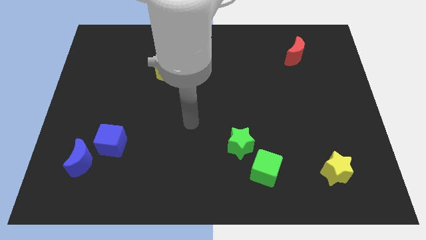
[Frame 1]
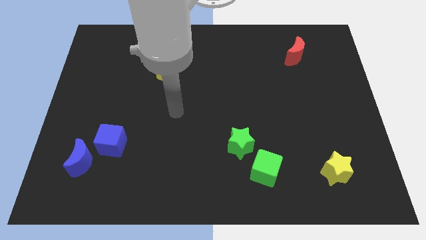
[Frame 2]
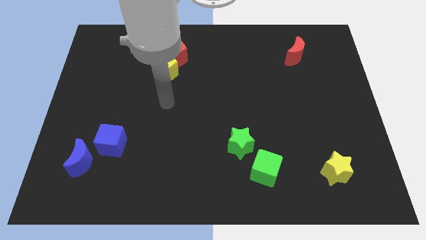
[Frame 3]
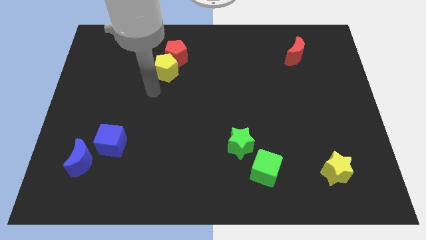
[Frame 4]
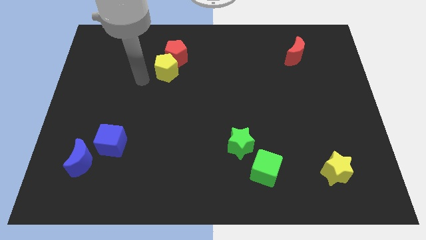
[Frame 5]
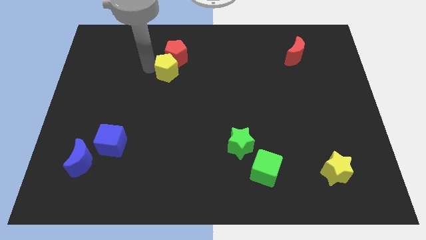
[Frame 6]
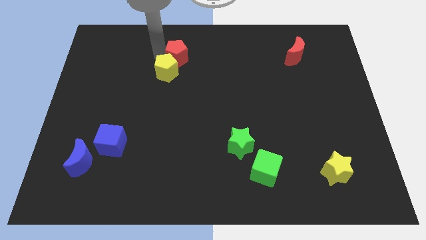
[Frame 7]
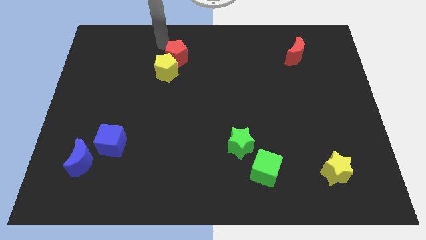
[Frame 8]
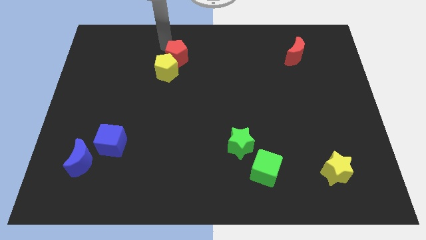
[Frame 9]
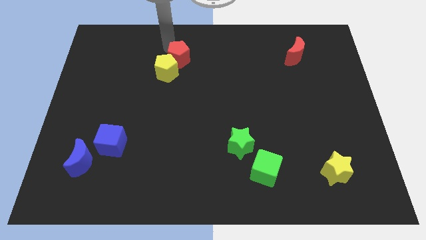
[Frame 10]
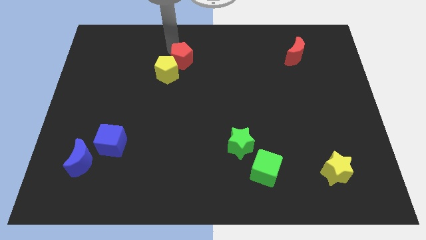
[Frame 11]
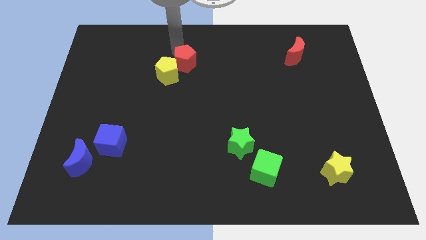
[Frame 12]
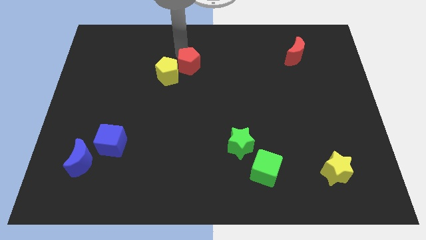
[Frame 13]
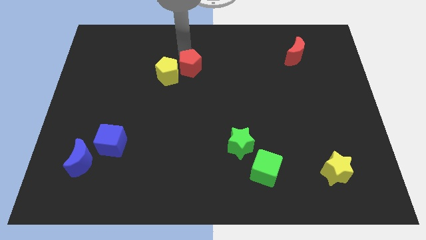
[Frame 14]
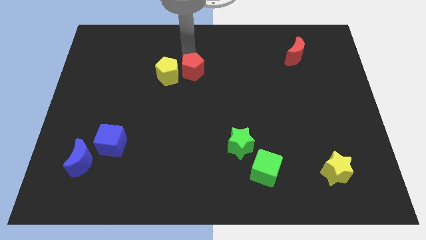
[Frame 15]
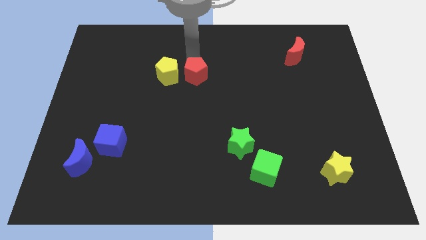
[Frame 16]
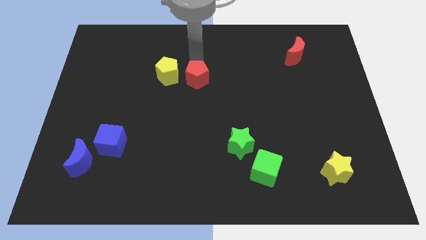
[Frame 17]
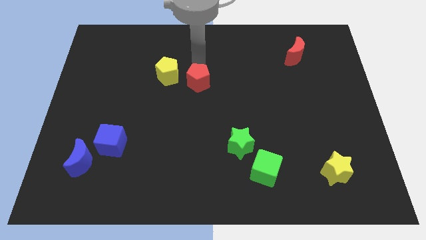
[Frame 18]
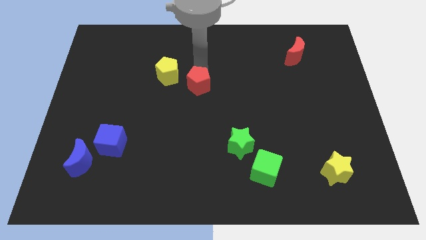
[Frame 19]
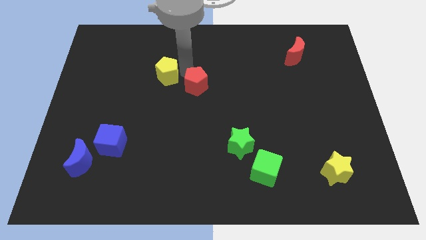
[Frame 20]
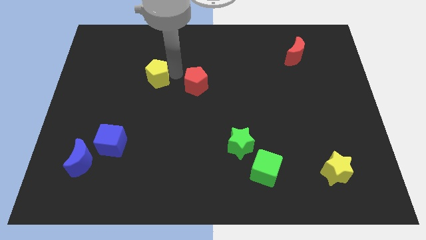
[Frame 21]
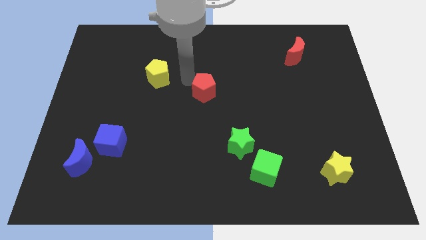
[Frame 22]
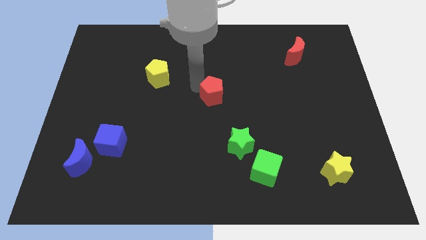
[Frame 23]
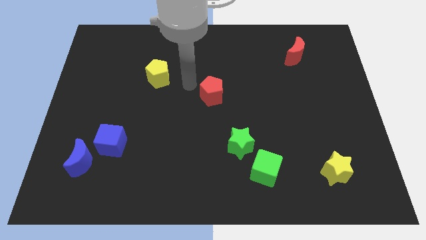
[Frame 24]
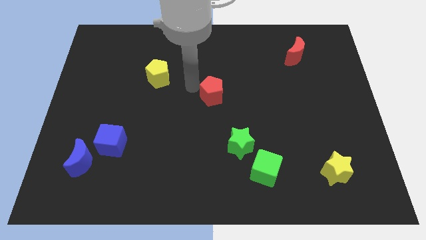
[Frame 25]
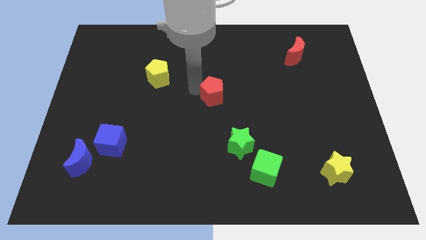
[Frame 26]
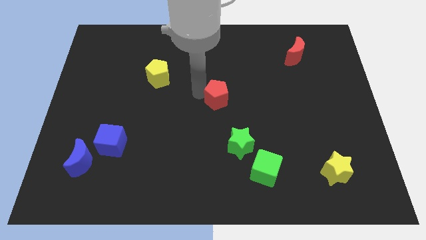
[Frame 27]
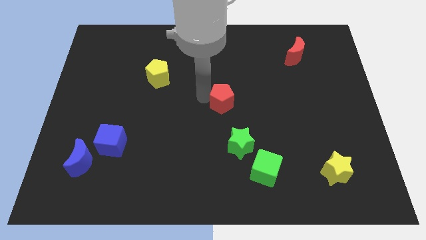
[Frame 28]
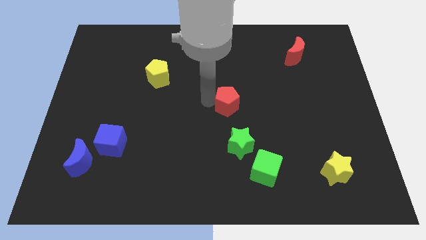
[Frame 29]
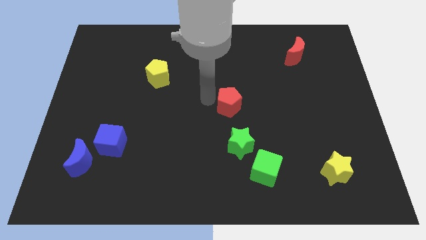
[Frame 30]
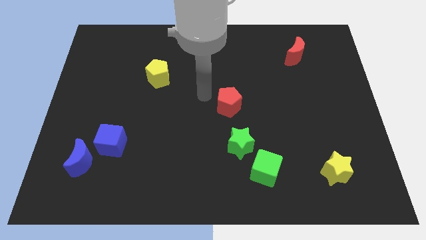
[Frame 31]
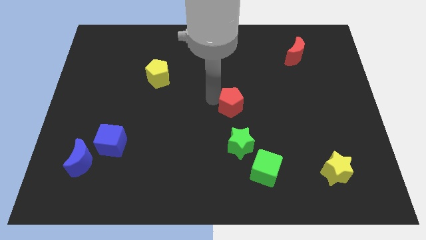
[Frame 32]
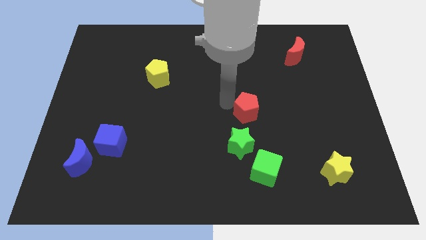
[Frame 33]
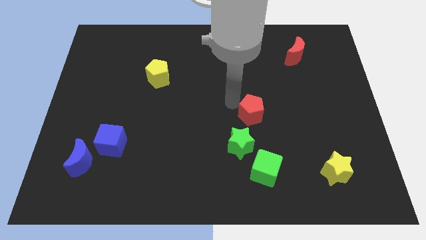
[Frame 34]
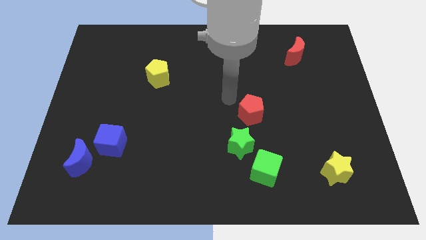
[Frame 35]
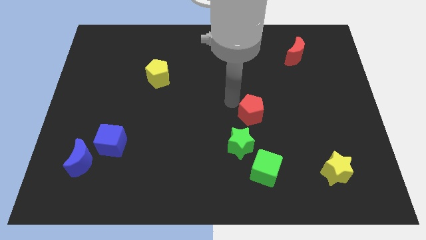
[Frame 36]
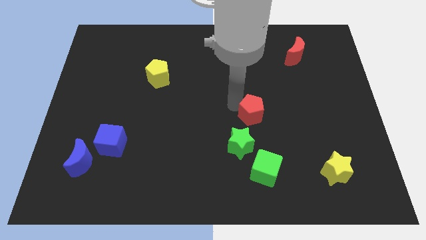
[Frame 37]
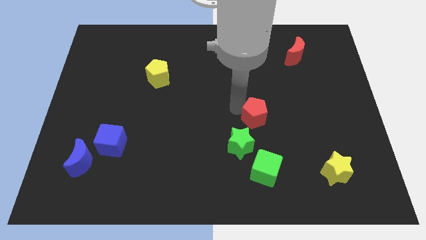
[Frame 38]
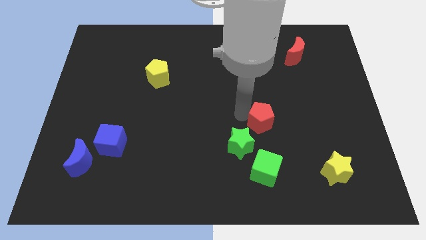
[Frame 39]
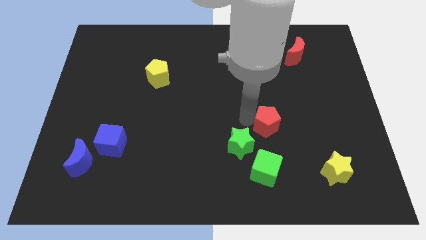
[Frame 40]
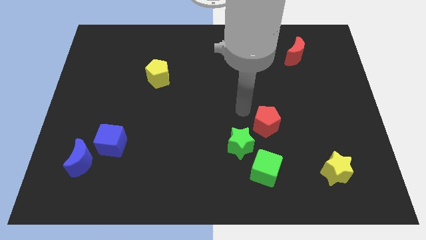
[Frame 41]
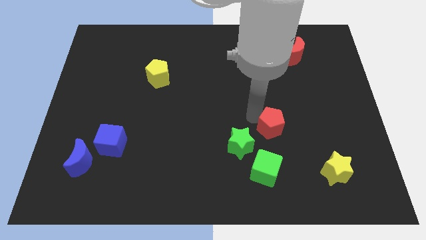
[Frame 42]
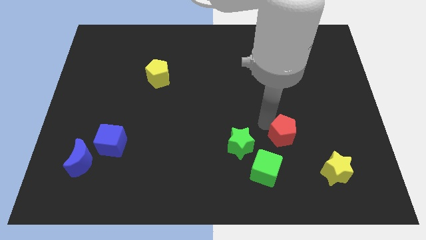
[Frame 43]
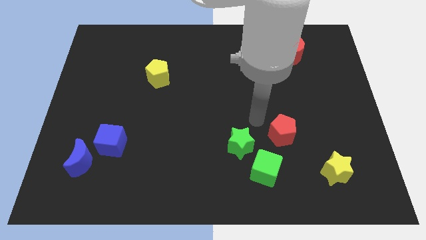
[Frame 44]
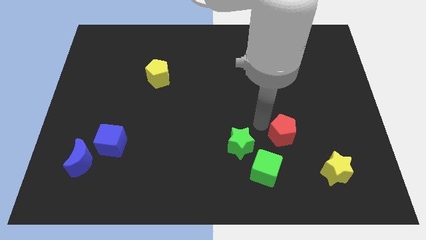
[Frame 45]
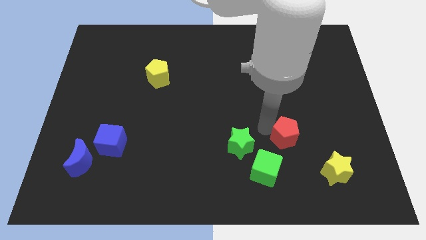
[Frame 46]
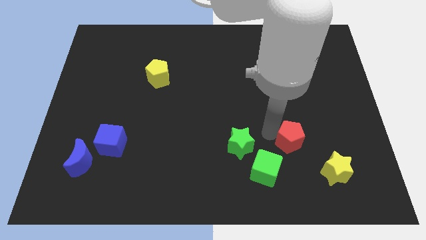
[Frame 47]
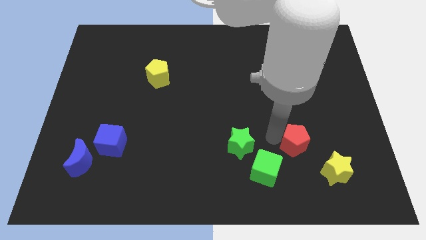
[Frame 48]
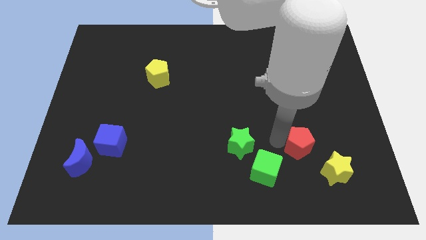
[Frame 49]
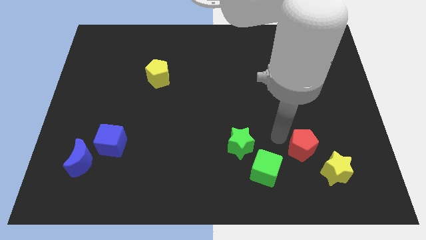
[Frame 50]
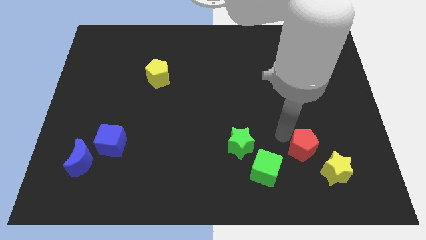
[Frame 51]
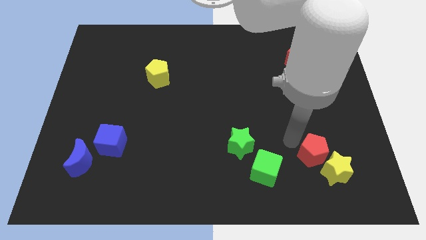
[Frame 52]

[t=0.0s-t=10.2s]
put the red pentagon towards the yellow star

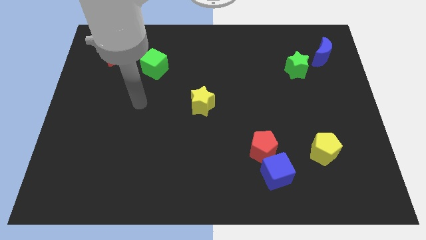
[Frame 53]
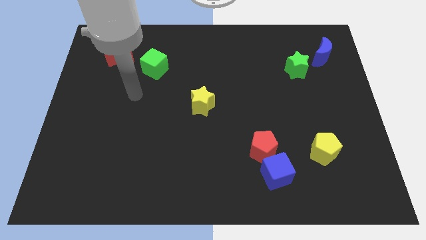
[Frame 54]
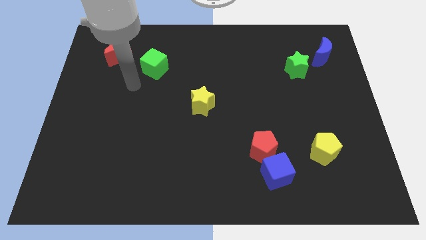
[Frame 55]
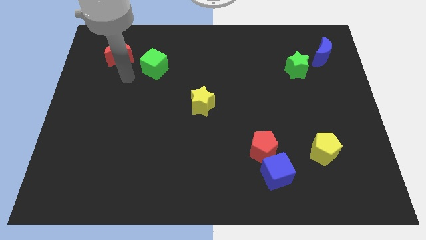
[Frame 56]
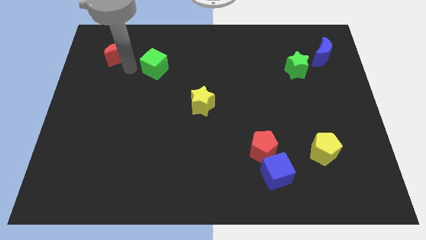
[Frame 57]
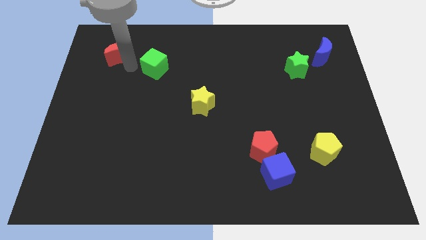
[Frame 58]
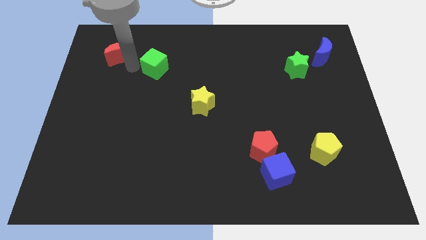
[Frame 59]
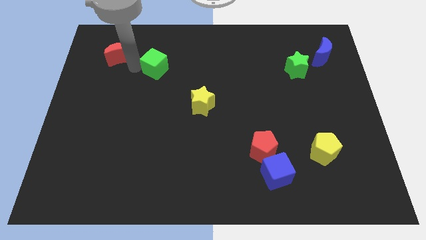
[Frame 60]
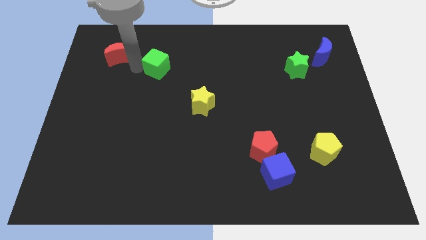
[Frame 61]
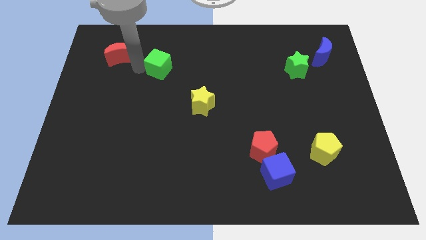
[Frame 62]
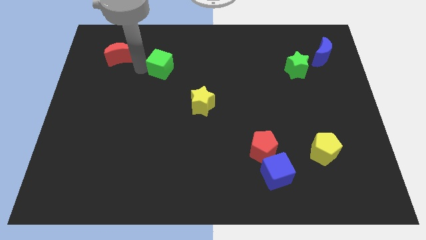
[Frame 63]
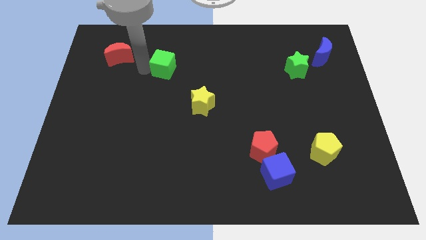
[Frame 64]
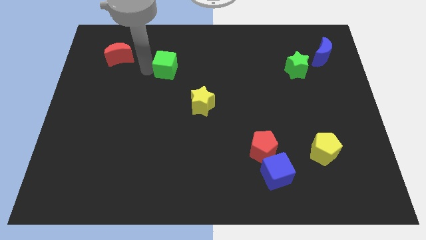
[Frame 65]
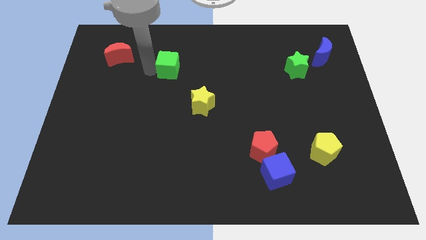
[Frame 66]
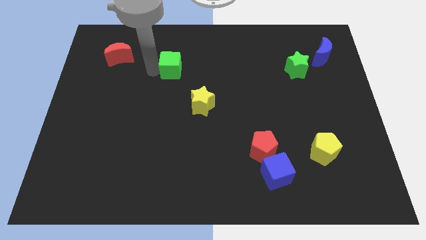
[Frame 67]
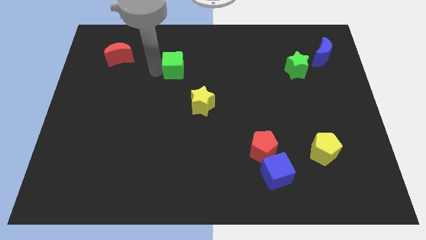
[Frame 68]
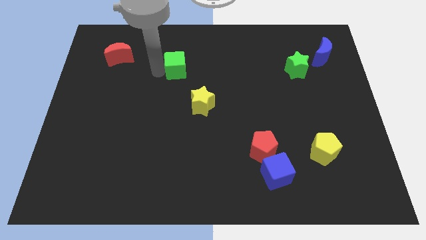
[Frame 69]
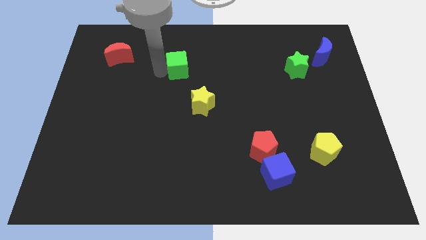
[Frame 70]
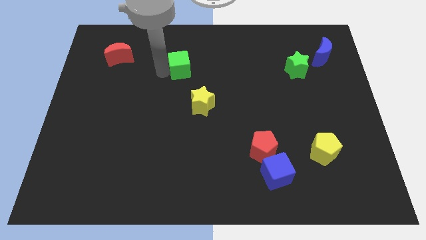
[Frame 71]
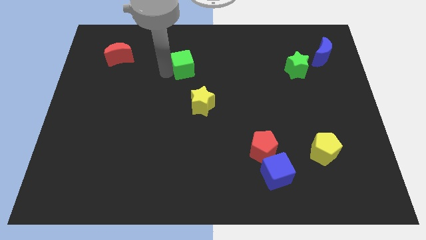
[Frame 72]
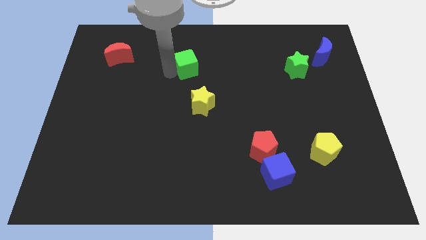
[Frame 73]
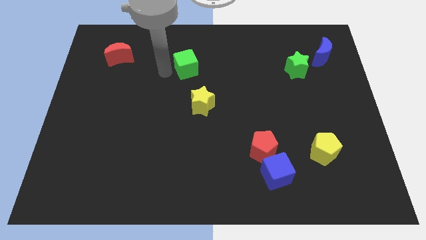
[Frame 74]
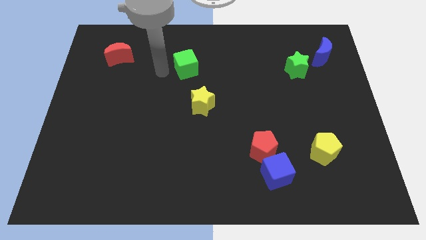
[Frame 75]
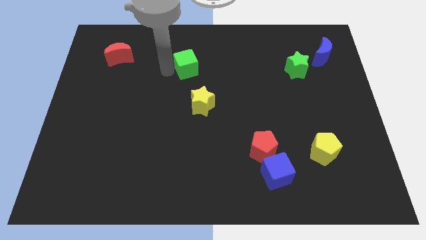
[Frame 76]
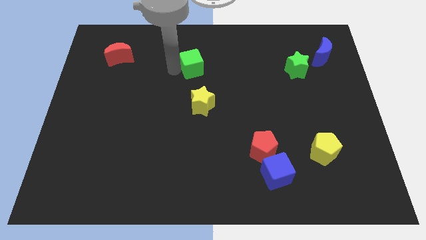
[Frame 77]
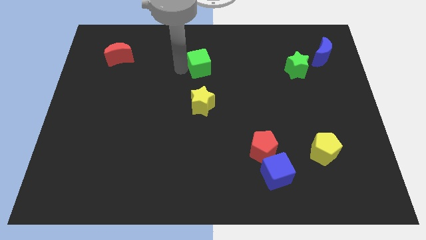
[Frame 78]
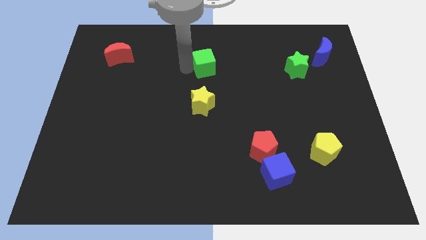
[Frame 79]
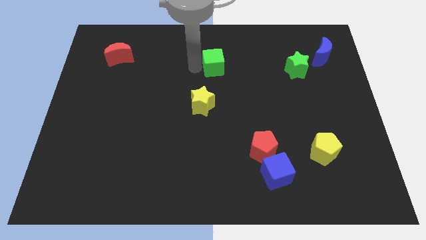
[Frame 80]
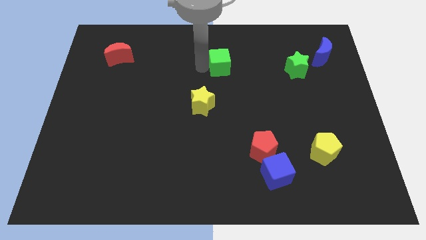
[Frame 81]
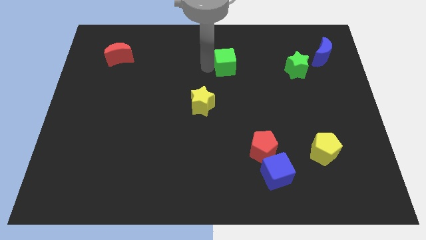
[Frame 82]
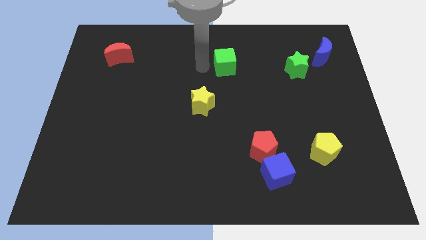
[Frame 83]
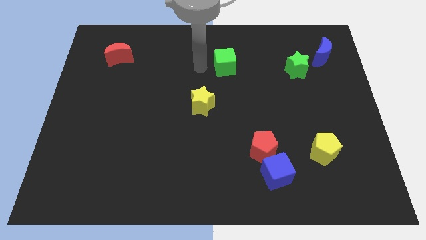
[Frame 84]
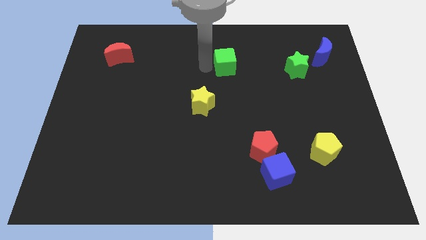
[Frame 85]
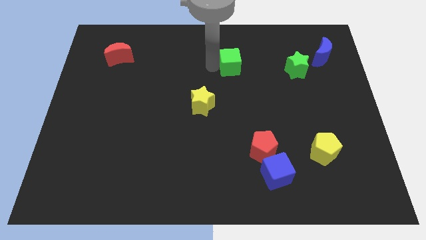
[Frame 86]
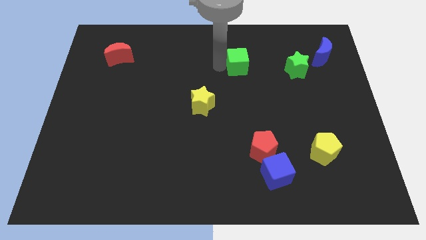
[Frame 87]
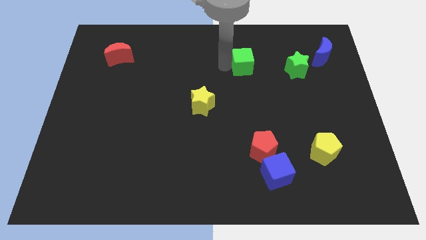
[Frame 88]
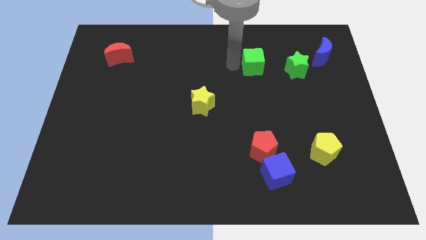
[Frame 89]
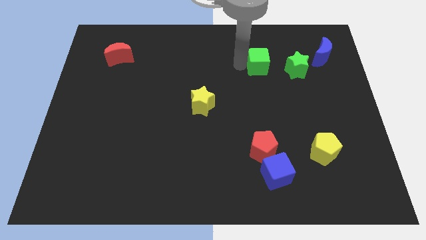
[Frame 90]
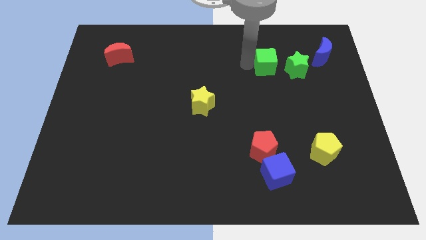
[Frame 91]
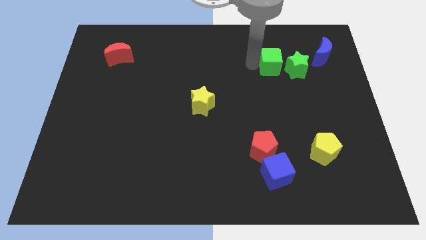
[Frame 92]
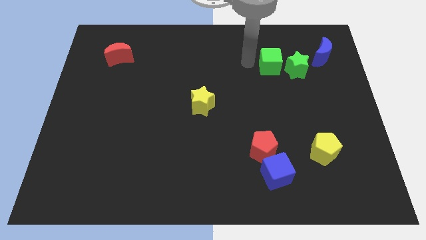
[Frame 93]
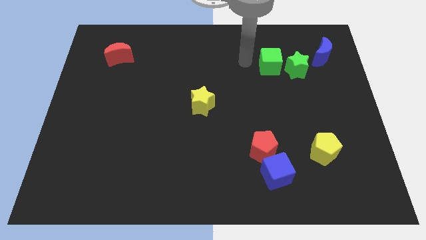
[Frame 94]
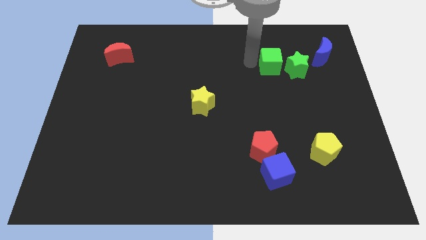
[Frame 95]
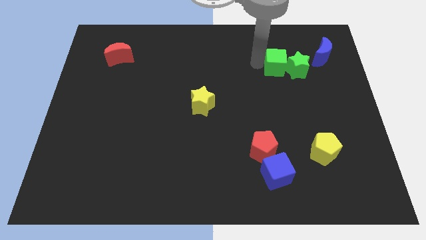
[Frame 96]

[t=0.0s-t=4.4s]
push the green cube towards the green star
